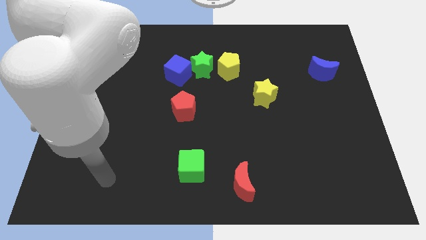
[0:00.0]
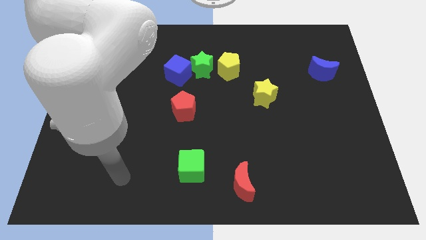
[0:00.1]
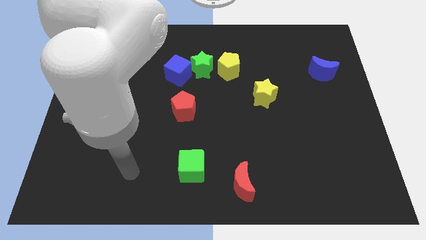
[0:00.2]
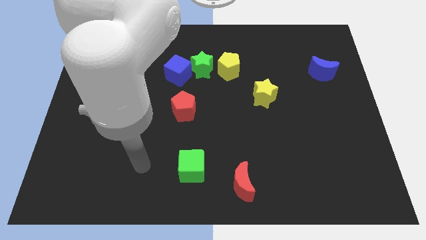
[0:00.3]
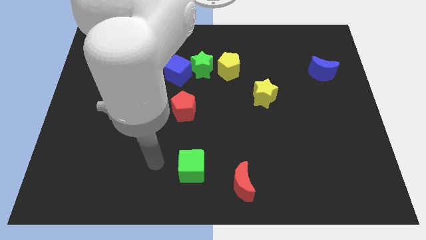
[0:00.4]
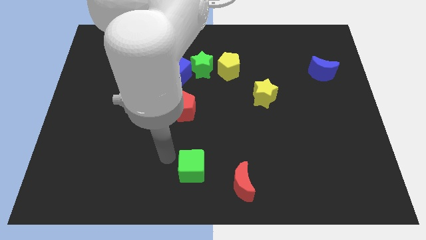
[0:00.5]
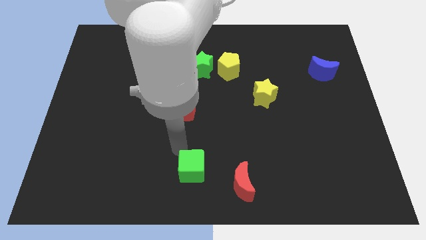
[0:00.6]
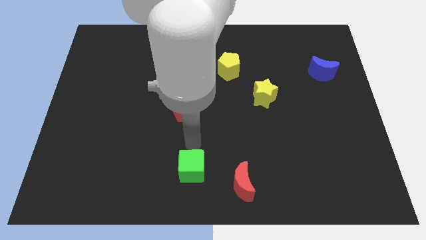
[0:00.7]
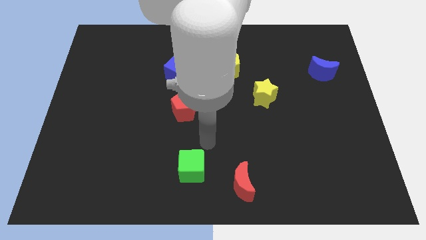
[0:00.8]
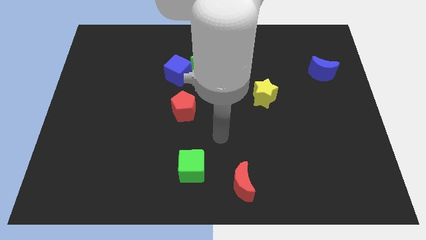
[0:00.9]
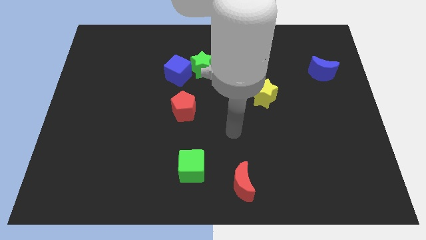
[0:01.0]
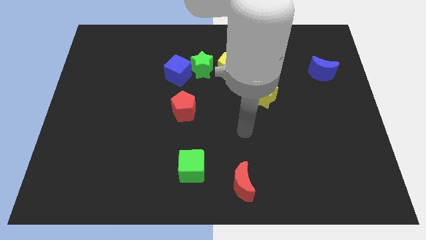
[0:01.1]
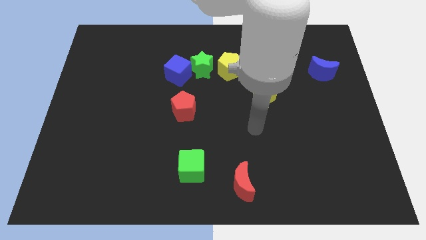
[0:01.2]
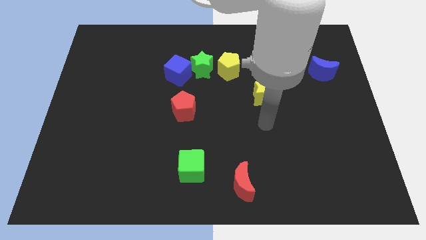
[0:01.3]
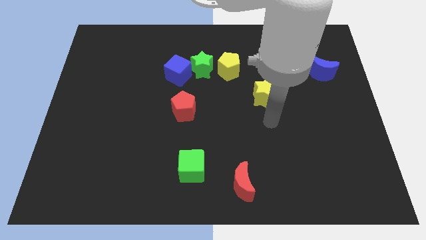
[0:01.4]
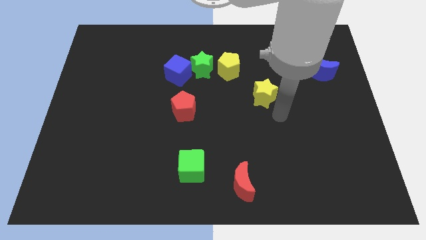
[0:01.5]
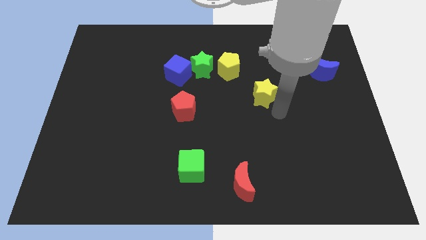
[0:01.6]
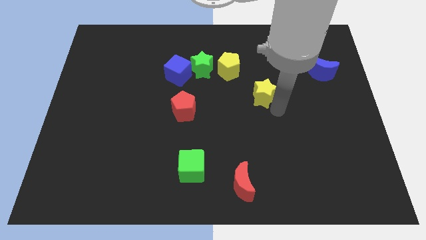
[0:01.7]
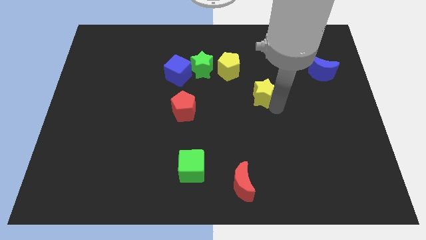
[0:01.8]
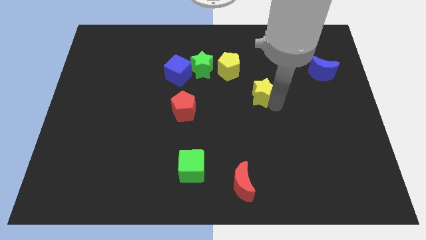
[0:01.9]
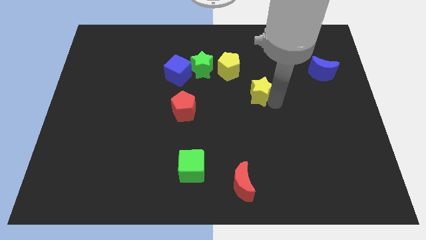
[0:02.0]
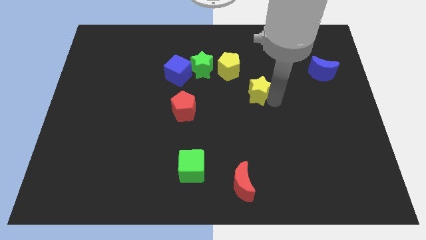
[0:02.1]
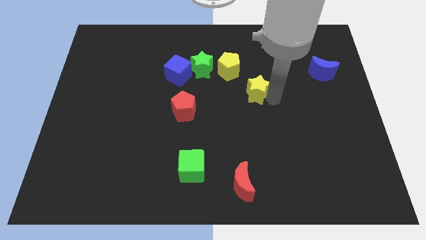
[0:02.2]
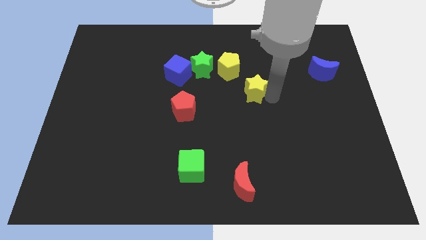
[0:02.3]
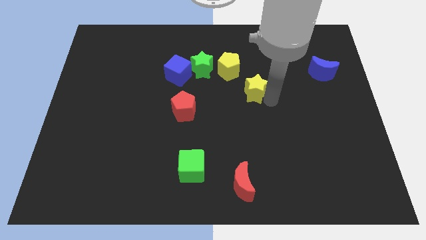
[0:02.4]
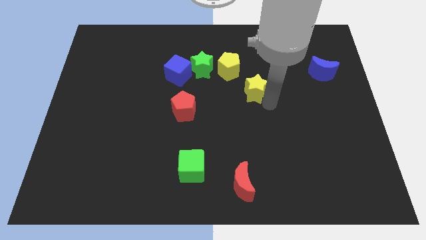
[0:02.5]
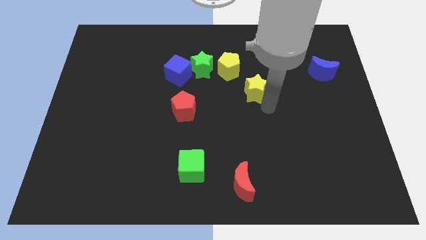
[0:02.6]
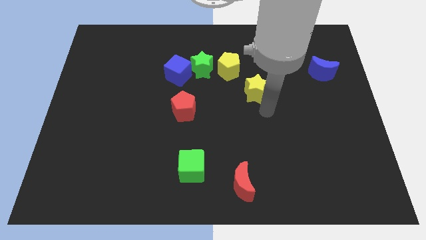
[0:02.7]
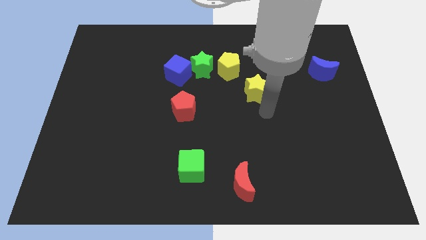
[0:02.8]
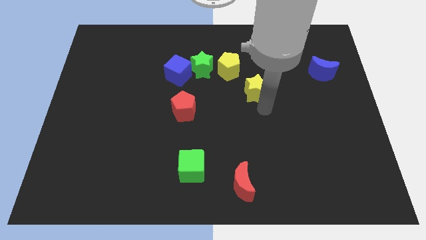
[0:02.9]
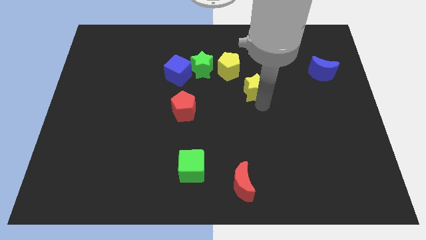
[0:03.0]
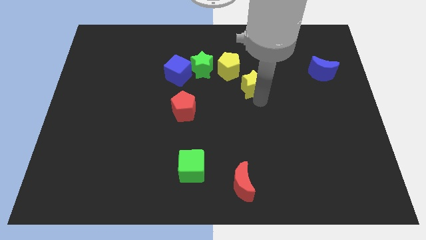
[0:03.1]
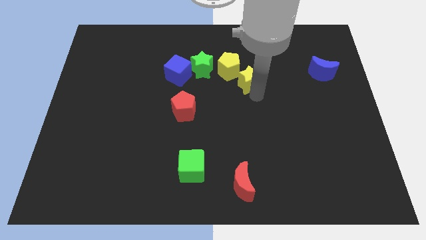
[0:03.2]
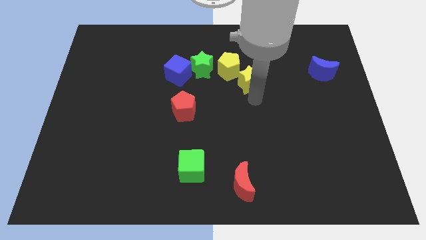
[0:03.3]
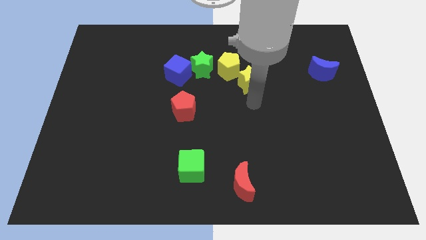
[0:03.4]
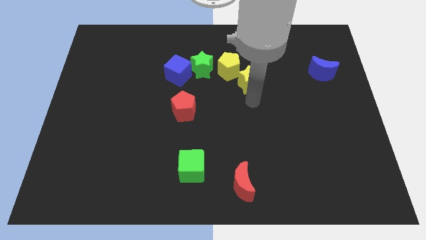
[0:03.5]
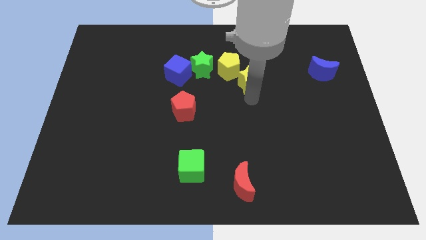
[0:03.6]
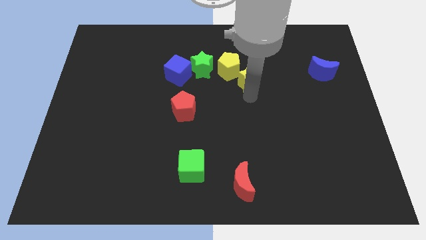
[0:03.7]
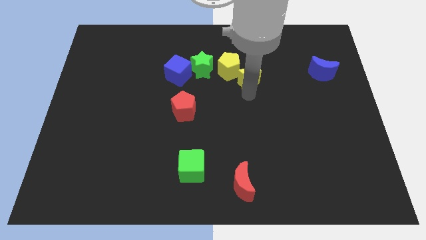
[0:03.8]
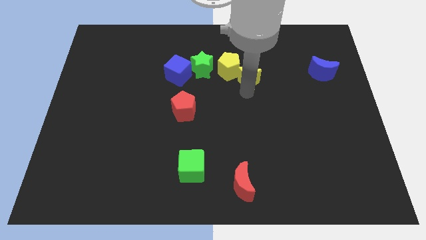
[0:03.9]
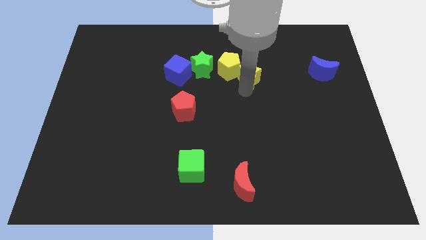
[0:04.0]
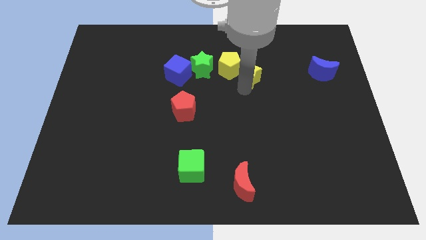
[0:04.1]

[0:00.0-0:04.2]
slightly slide the yellow star upwards and left

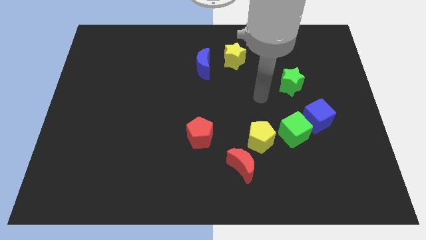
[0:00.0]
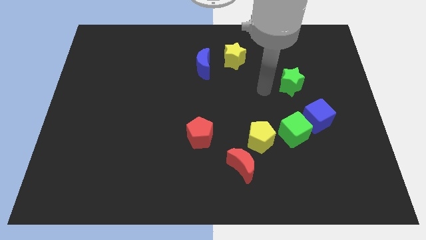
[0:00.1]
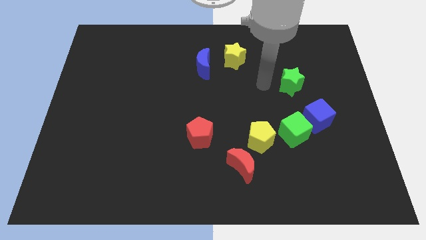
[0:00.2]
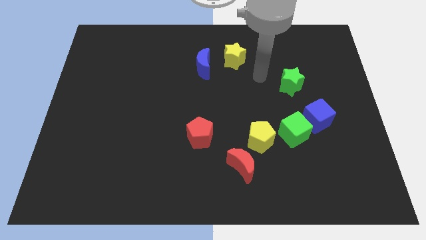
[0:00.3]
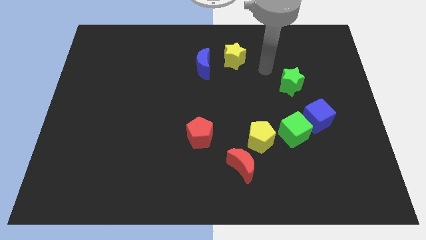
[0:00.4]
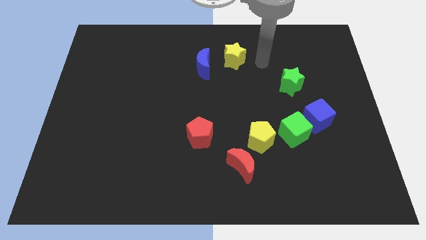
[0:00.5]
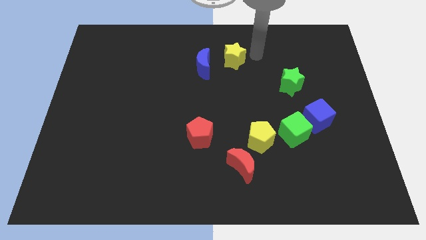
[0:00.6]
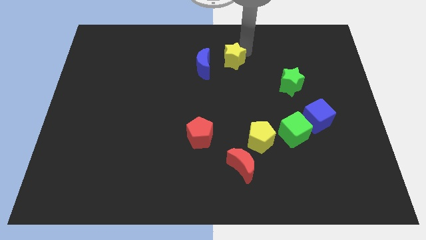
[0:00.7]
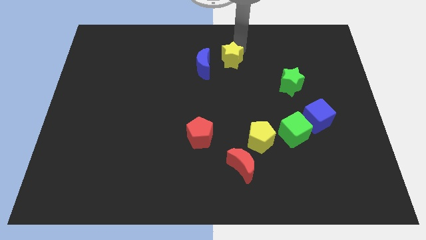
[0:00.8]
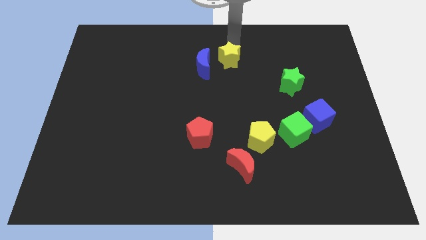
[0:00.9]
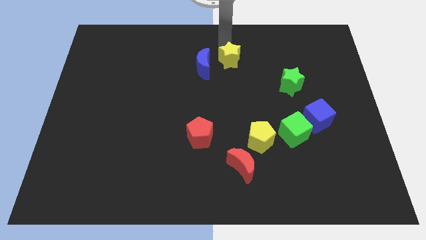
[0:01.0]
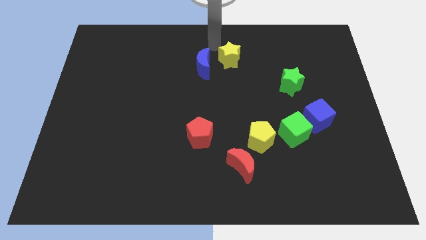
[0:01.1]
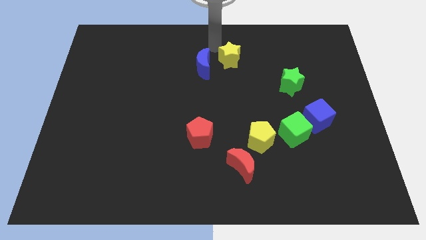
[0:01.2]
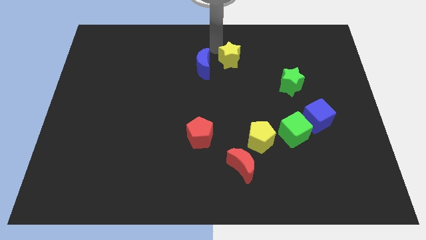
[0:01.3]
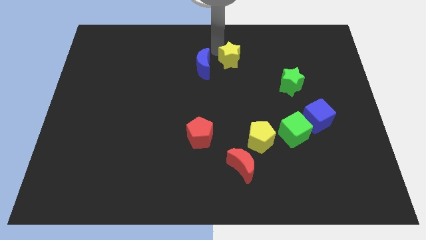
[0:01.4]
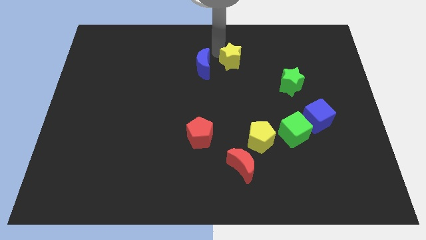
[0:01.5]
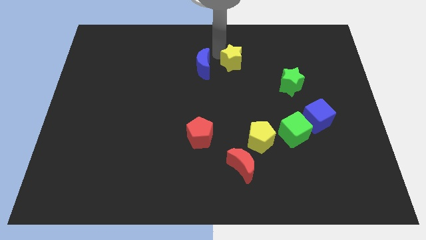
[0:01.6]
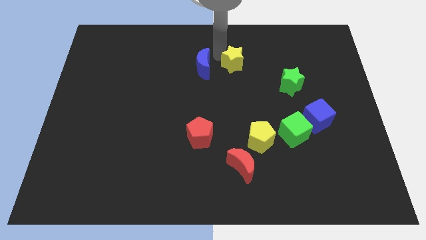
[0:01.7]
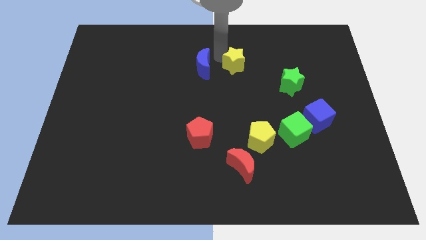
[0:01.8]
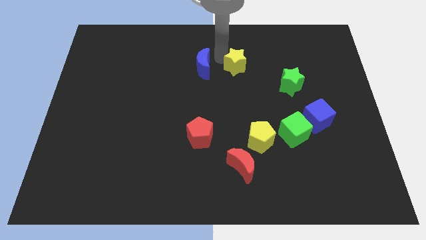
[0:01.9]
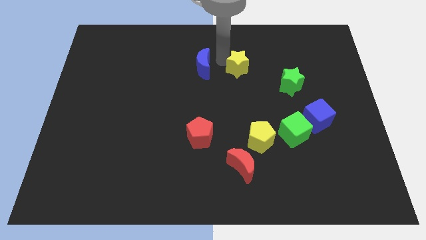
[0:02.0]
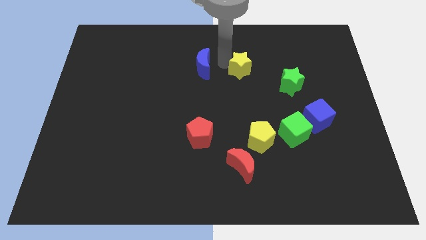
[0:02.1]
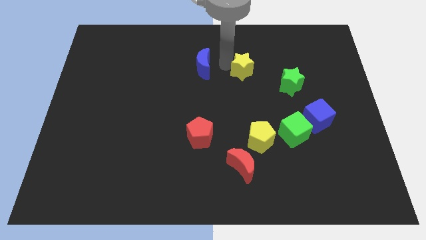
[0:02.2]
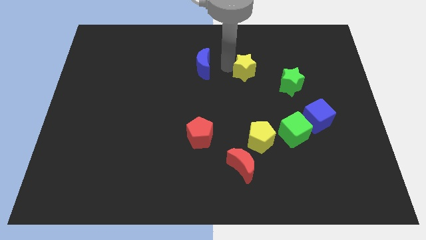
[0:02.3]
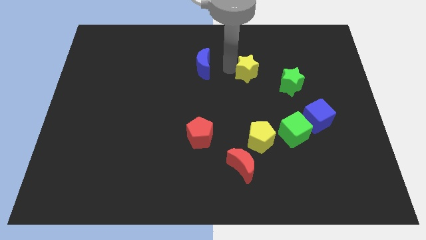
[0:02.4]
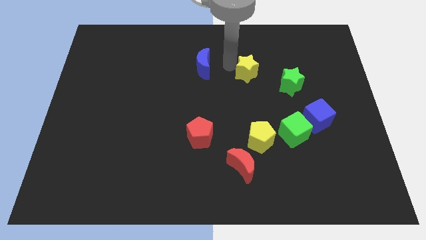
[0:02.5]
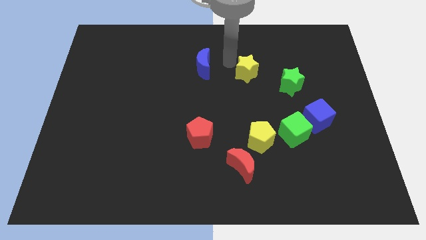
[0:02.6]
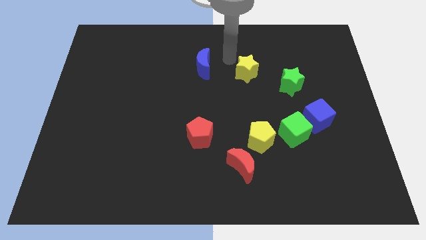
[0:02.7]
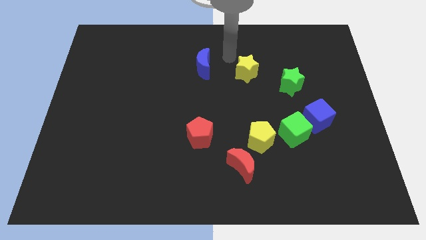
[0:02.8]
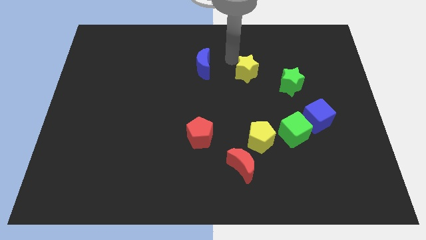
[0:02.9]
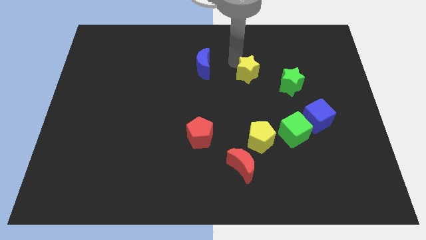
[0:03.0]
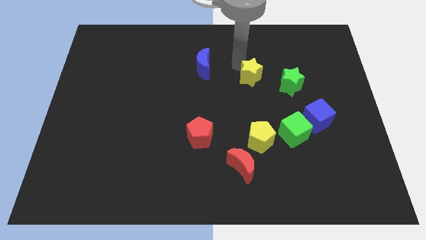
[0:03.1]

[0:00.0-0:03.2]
move the yellow star a little downwards and to the right

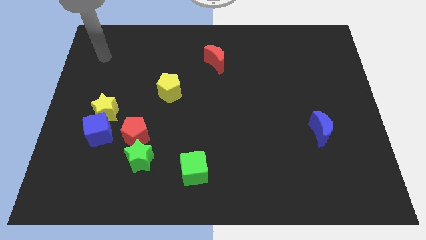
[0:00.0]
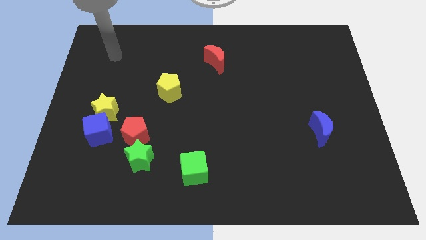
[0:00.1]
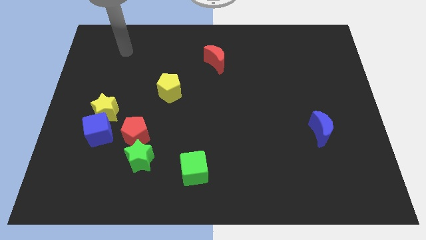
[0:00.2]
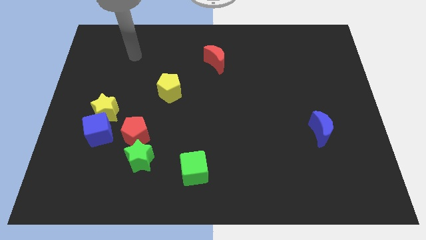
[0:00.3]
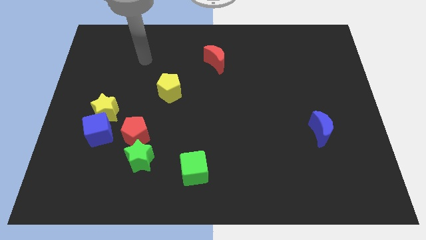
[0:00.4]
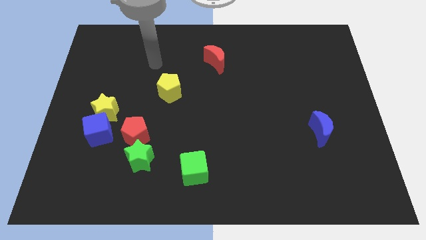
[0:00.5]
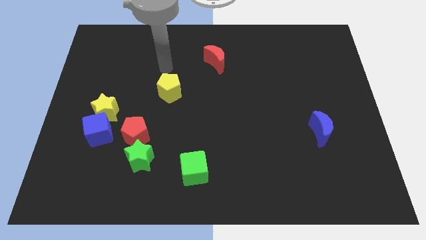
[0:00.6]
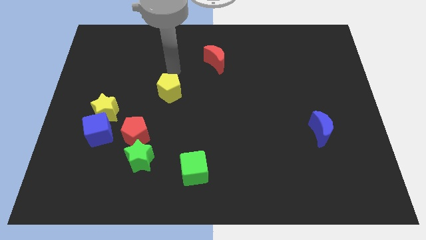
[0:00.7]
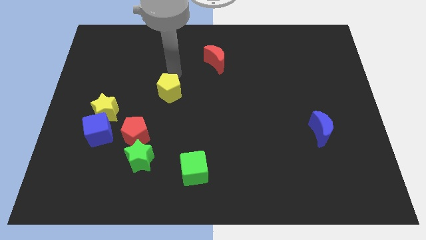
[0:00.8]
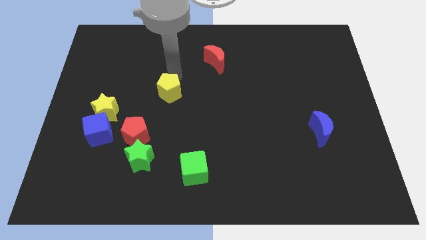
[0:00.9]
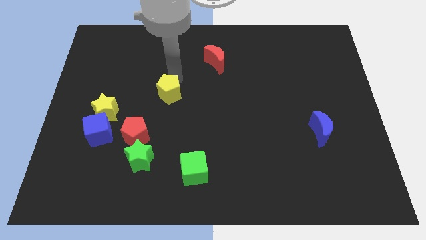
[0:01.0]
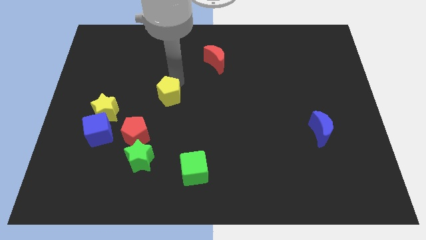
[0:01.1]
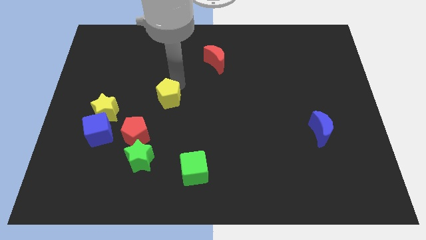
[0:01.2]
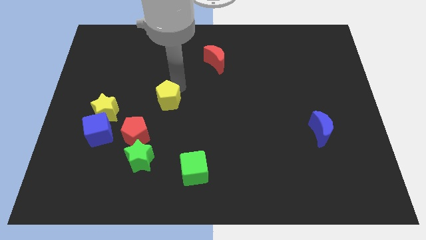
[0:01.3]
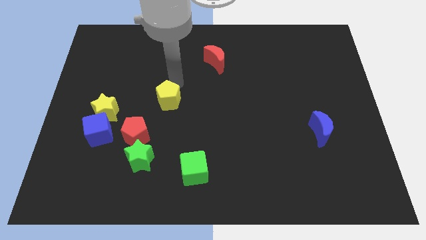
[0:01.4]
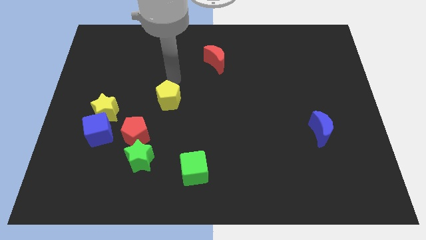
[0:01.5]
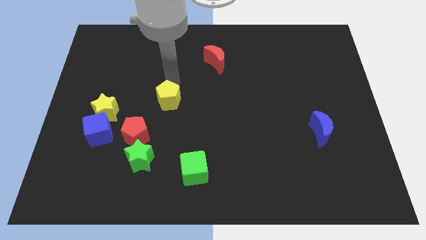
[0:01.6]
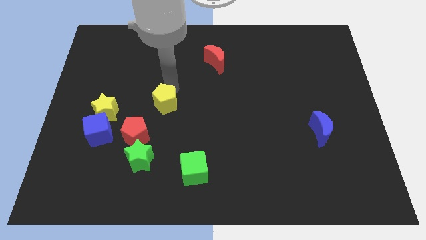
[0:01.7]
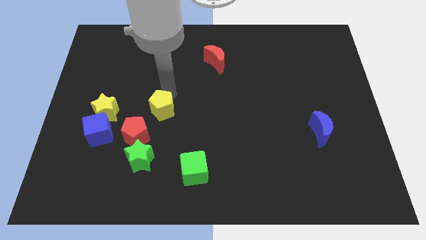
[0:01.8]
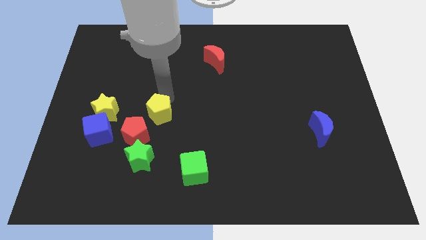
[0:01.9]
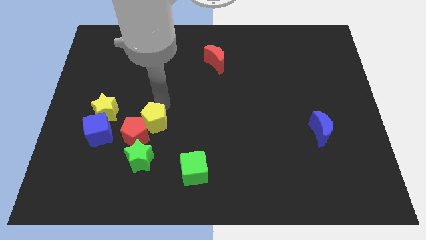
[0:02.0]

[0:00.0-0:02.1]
slide the yellow pentagon downwards a little
